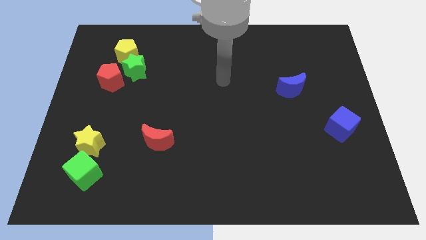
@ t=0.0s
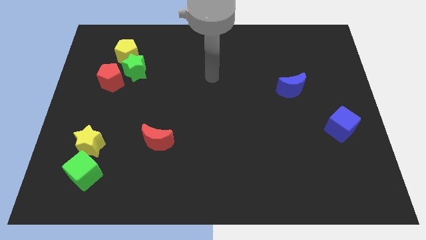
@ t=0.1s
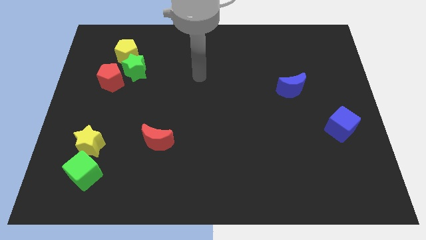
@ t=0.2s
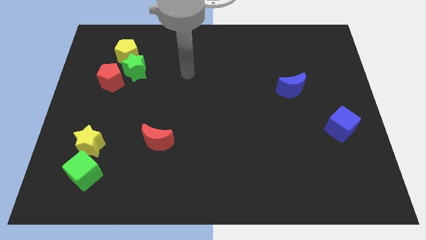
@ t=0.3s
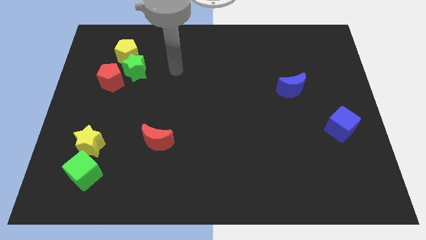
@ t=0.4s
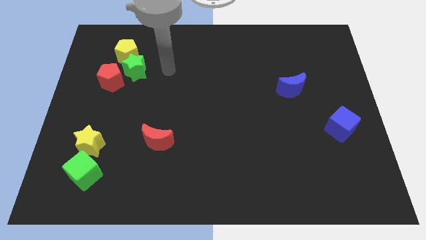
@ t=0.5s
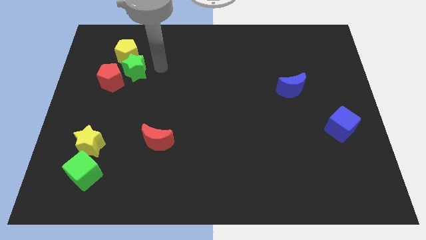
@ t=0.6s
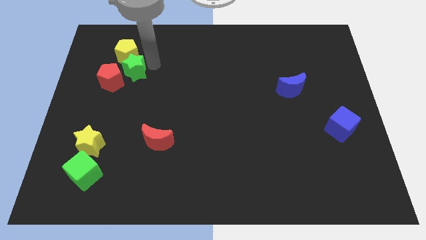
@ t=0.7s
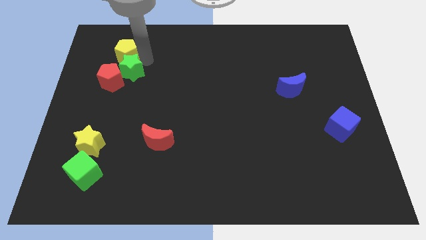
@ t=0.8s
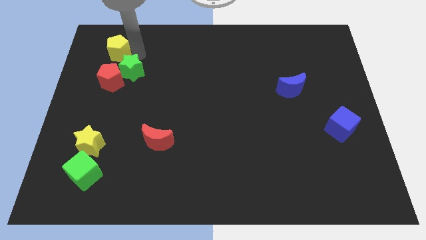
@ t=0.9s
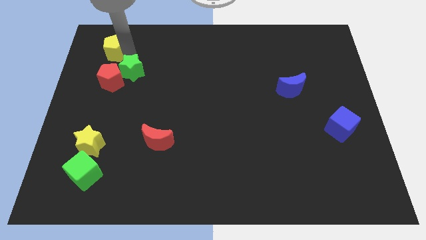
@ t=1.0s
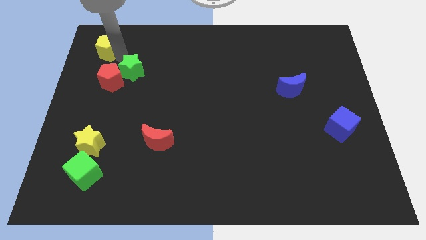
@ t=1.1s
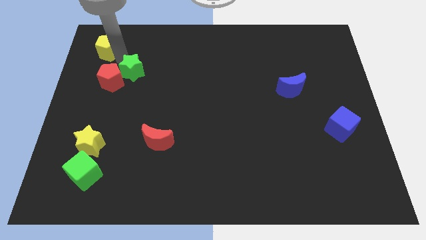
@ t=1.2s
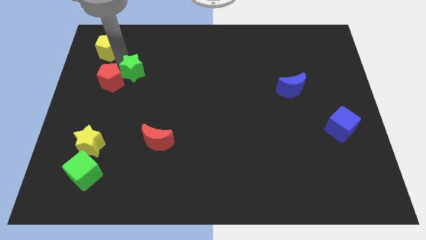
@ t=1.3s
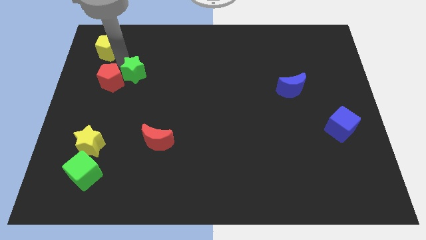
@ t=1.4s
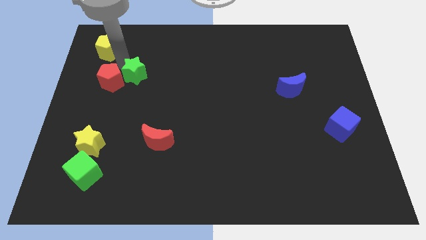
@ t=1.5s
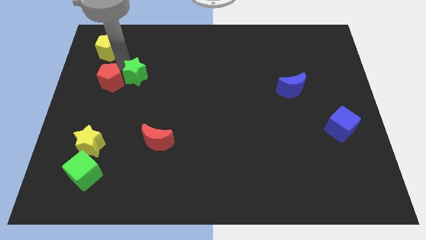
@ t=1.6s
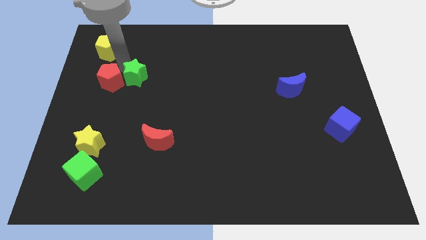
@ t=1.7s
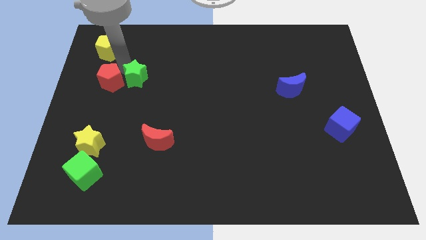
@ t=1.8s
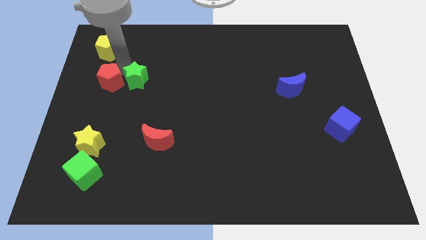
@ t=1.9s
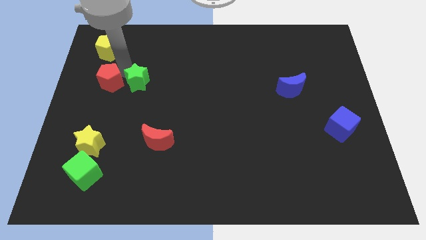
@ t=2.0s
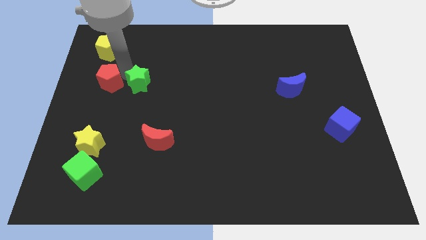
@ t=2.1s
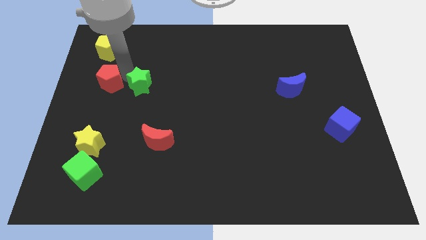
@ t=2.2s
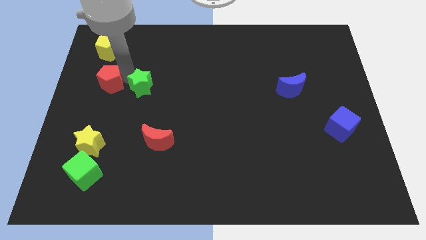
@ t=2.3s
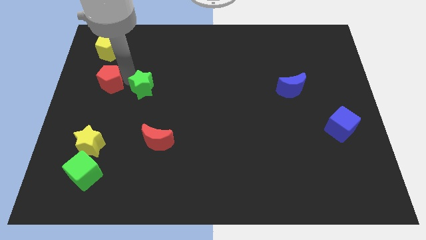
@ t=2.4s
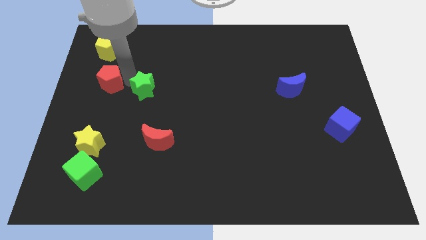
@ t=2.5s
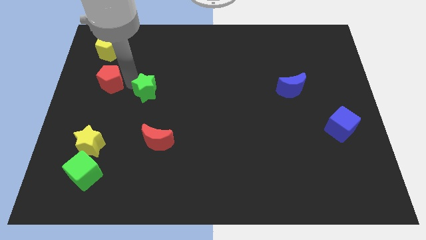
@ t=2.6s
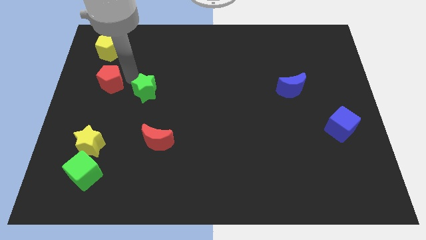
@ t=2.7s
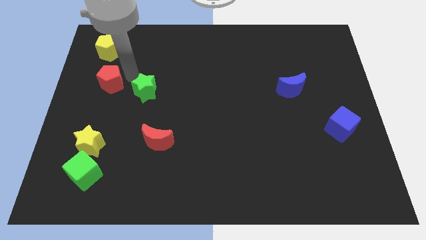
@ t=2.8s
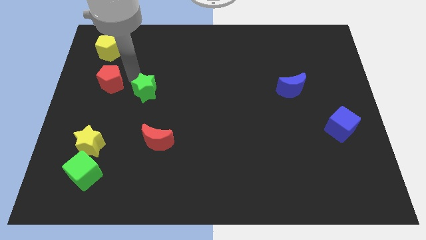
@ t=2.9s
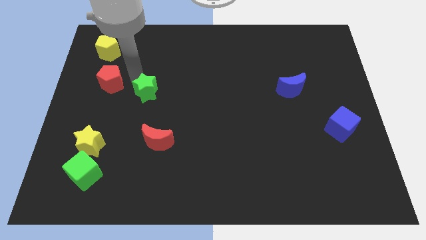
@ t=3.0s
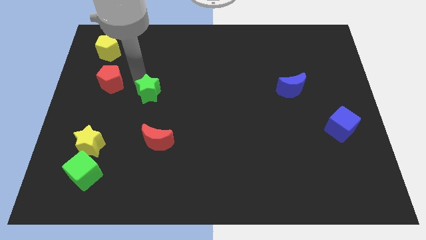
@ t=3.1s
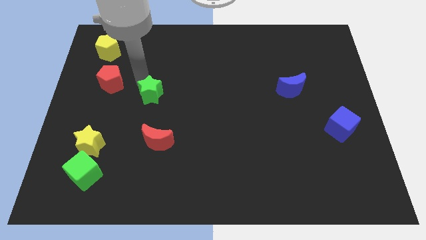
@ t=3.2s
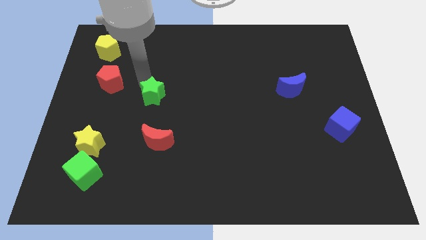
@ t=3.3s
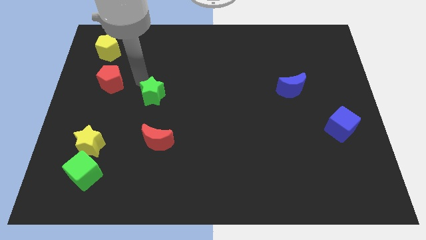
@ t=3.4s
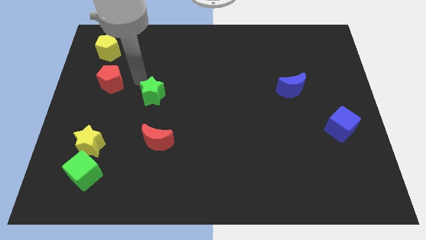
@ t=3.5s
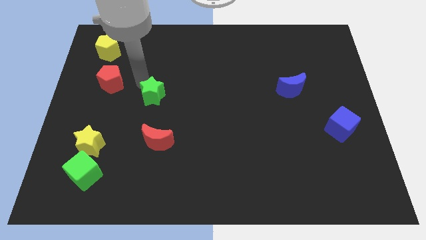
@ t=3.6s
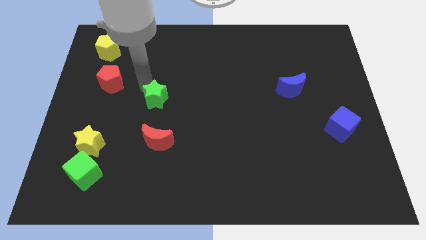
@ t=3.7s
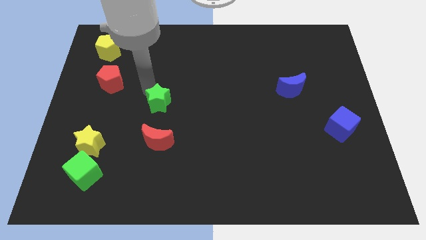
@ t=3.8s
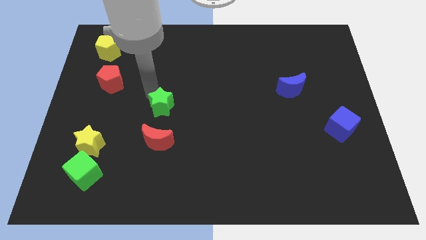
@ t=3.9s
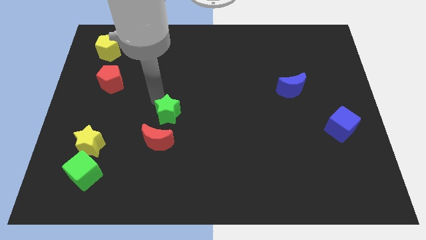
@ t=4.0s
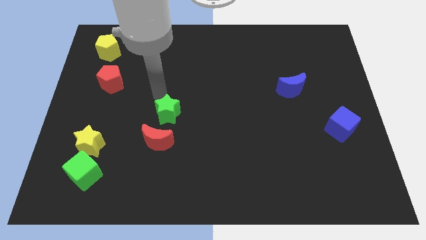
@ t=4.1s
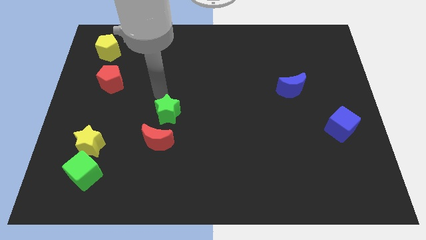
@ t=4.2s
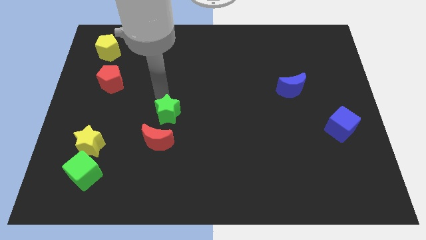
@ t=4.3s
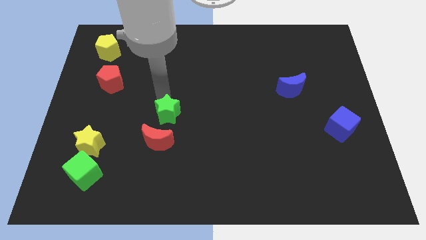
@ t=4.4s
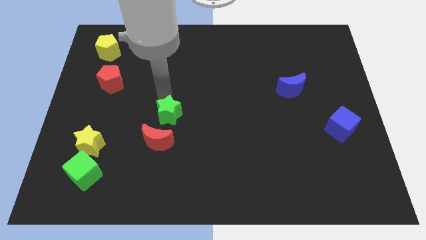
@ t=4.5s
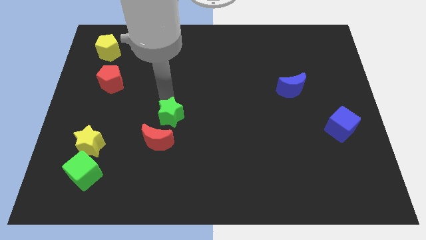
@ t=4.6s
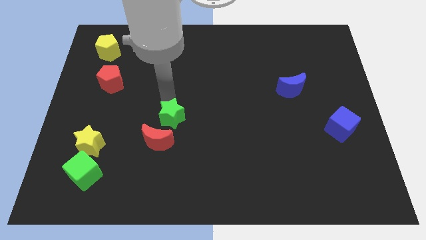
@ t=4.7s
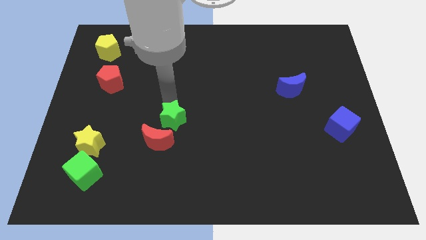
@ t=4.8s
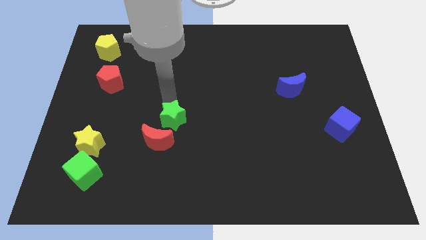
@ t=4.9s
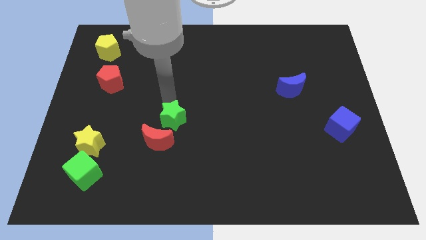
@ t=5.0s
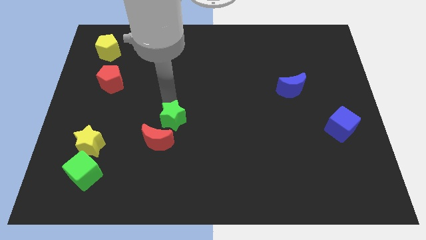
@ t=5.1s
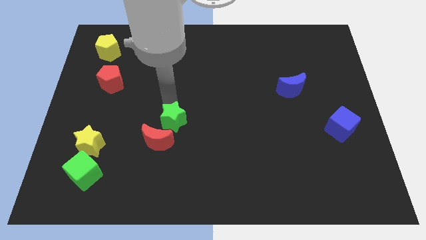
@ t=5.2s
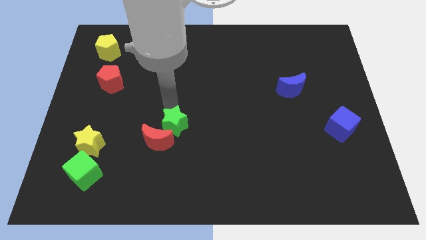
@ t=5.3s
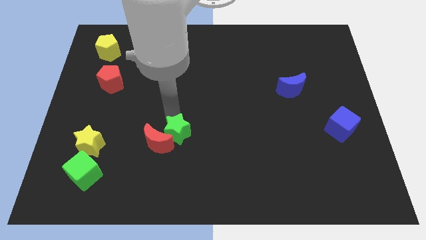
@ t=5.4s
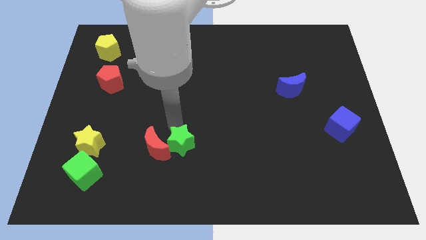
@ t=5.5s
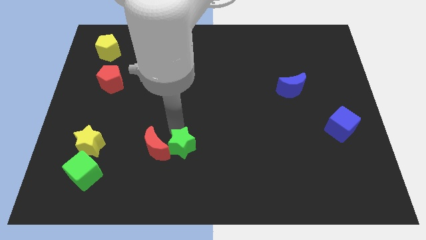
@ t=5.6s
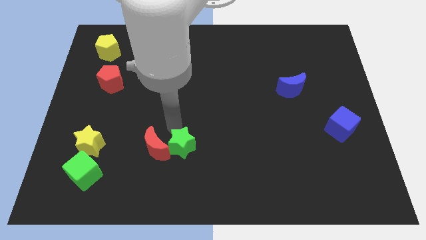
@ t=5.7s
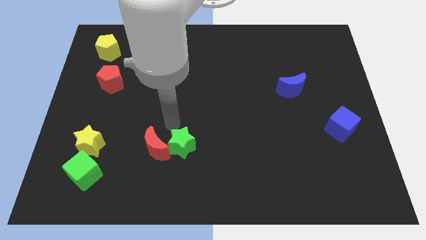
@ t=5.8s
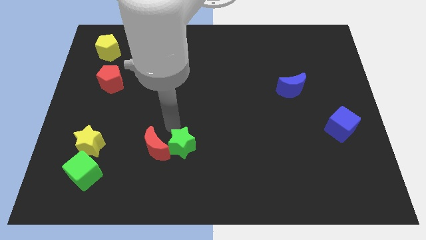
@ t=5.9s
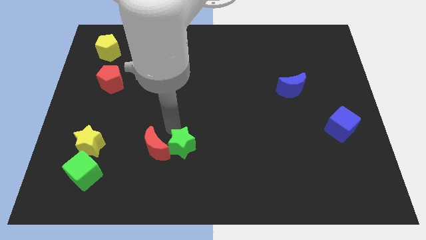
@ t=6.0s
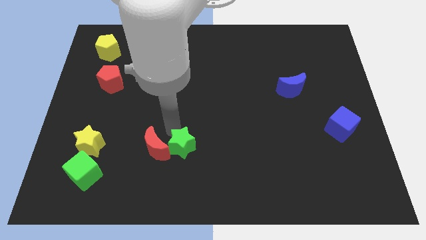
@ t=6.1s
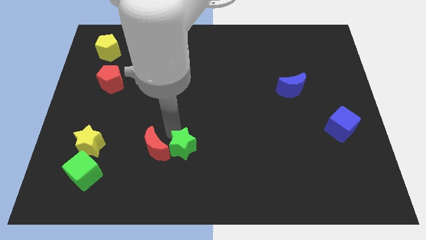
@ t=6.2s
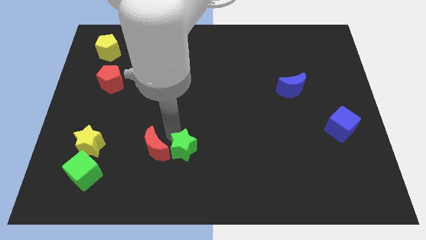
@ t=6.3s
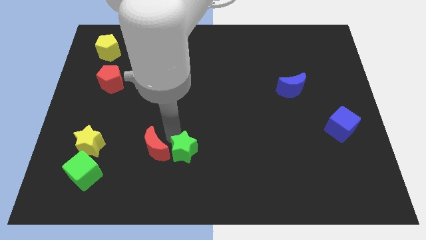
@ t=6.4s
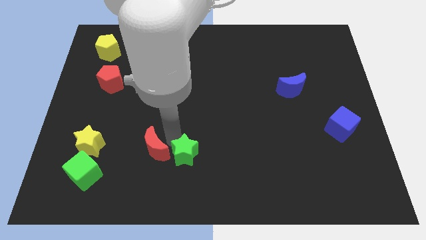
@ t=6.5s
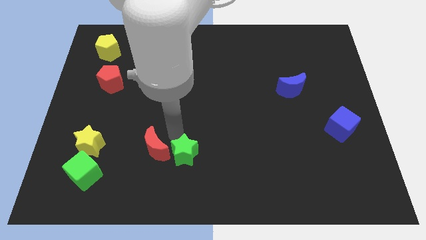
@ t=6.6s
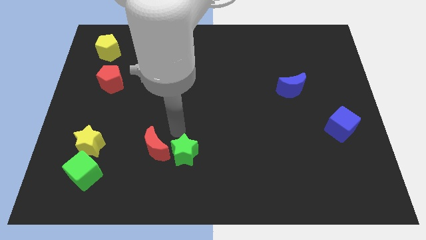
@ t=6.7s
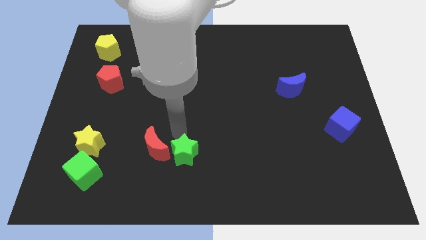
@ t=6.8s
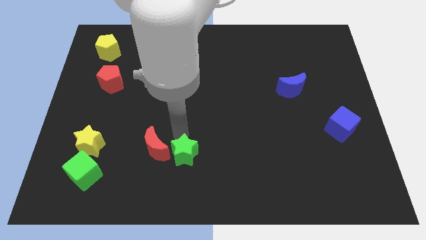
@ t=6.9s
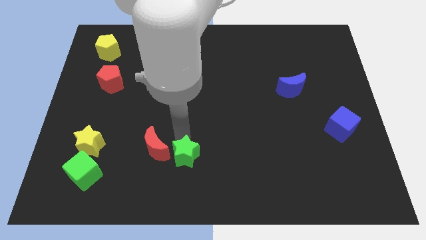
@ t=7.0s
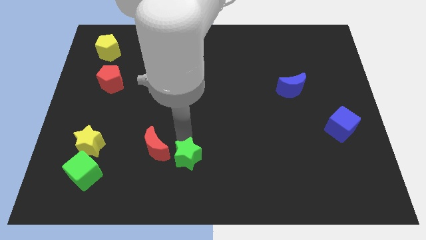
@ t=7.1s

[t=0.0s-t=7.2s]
push the green star to the bottom side

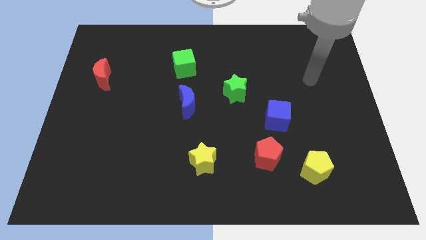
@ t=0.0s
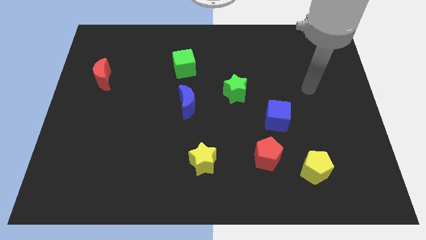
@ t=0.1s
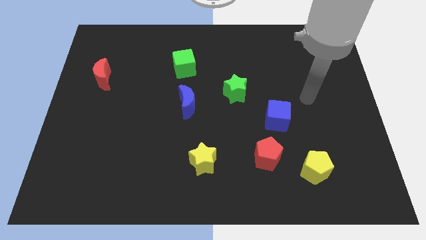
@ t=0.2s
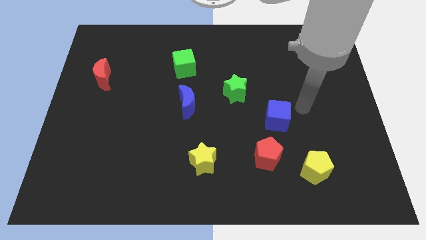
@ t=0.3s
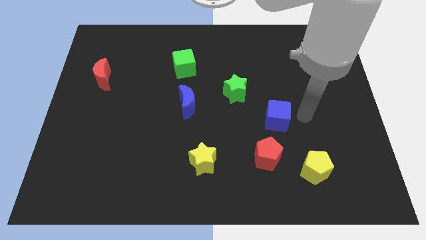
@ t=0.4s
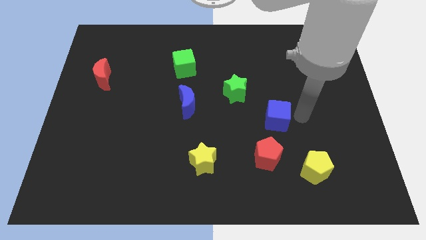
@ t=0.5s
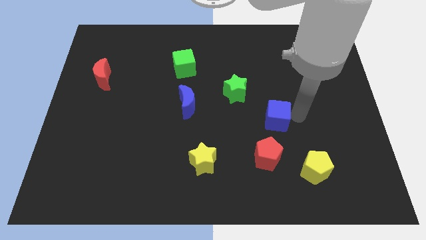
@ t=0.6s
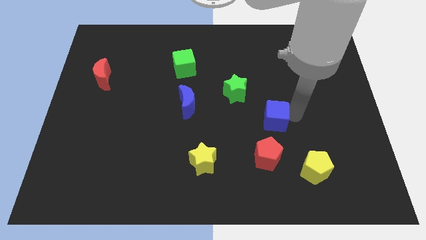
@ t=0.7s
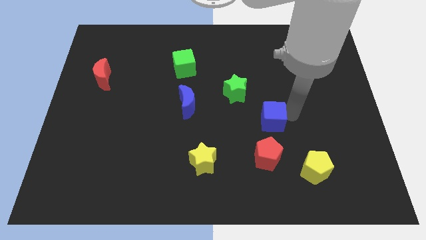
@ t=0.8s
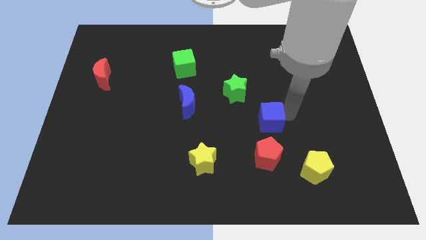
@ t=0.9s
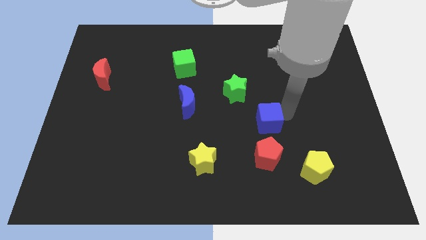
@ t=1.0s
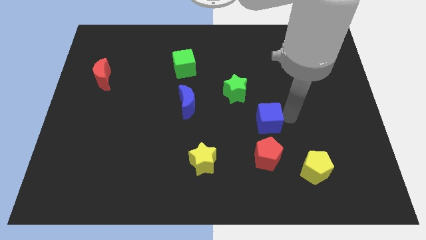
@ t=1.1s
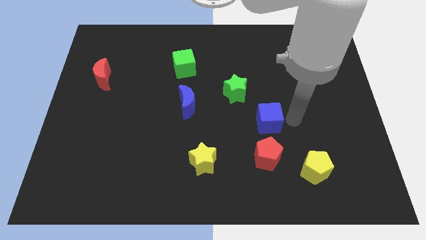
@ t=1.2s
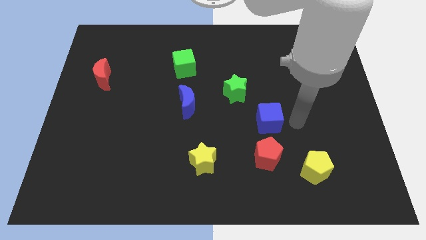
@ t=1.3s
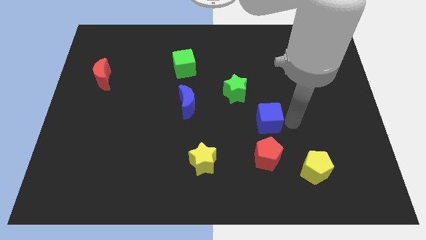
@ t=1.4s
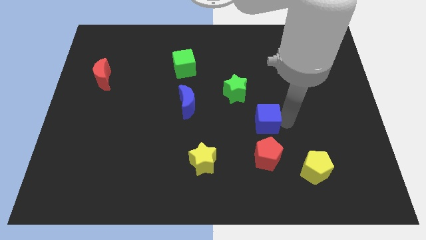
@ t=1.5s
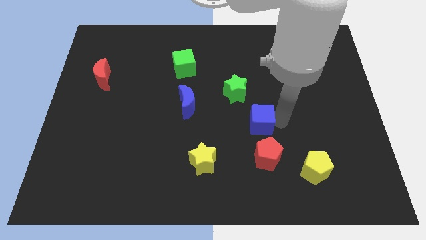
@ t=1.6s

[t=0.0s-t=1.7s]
move the blue cube to the center of the board
